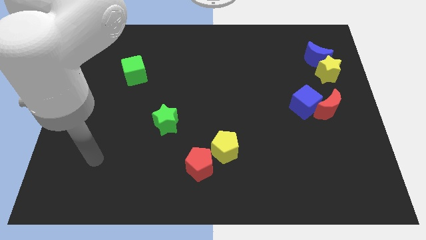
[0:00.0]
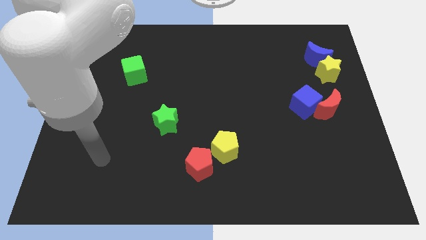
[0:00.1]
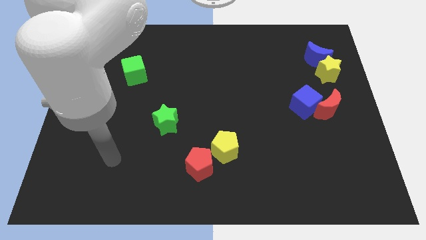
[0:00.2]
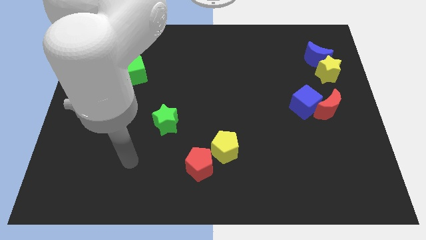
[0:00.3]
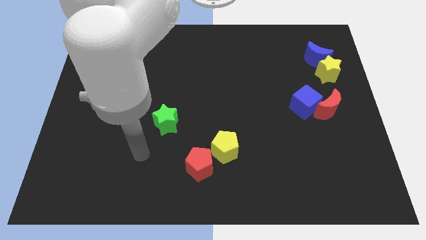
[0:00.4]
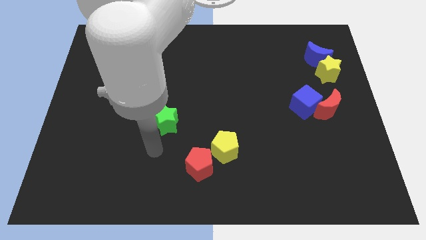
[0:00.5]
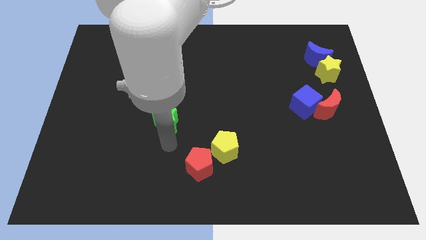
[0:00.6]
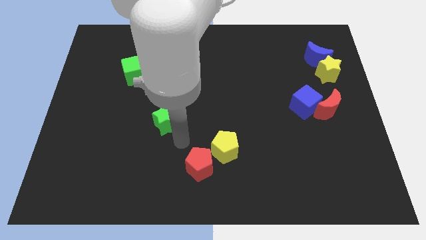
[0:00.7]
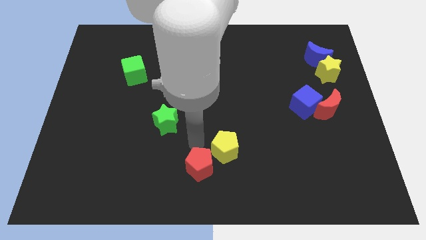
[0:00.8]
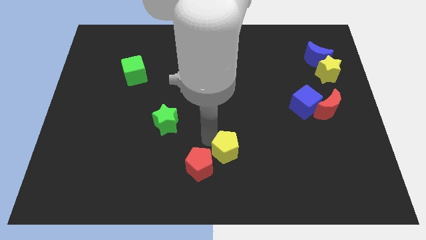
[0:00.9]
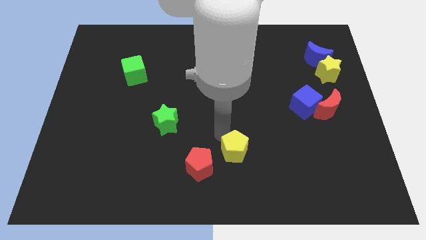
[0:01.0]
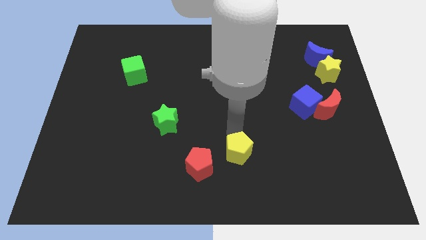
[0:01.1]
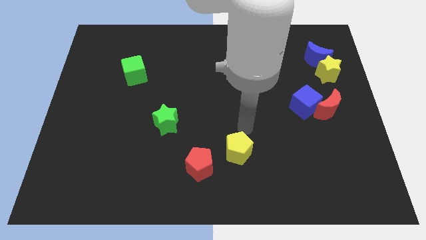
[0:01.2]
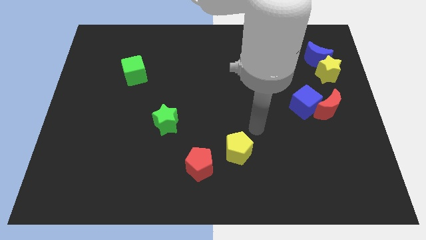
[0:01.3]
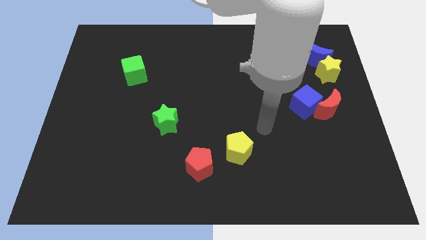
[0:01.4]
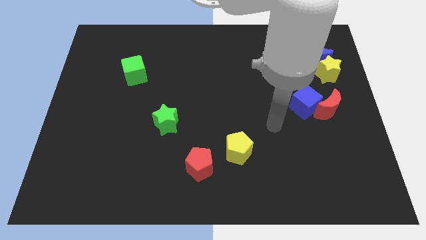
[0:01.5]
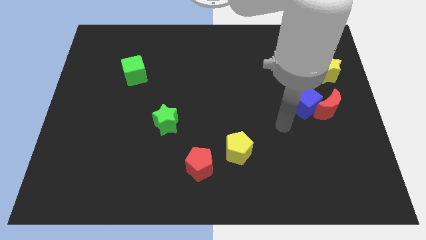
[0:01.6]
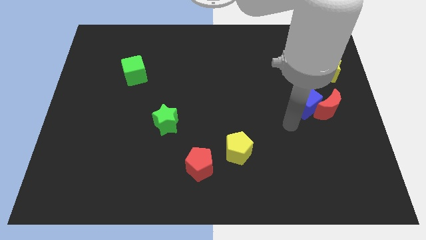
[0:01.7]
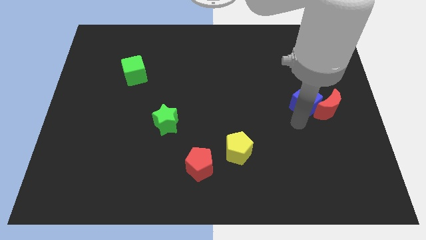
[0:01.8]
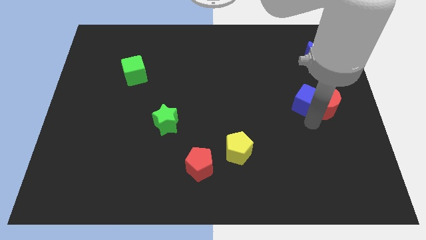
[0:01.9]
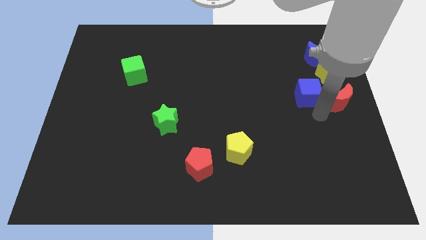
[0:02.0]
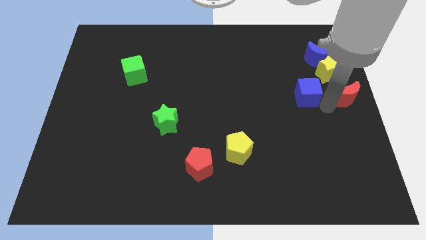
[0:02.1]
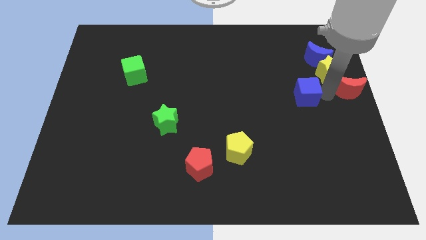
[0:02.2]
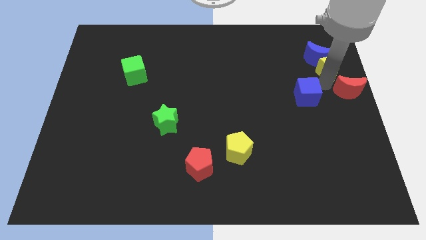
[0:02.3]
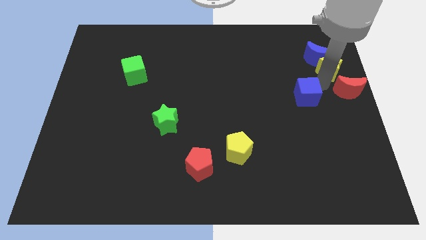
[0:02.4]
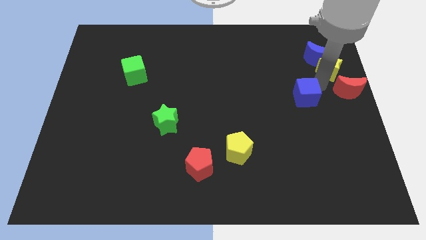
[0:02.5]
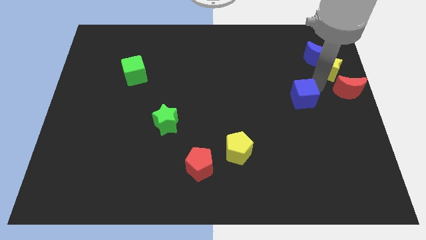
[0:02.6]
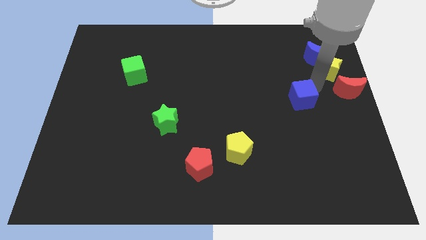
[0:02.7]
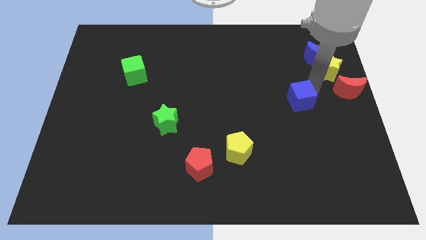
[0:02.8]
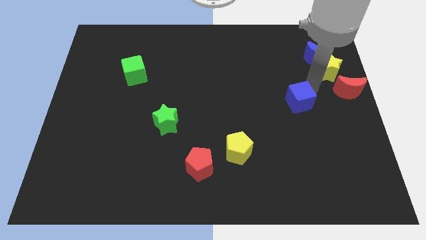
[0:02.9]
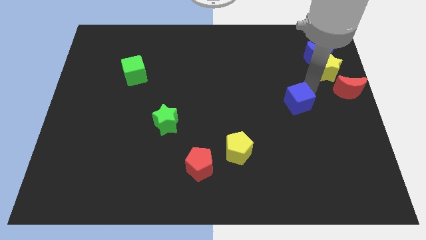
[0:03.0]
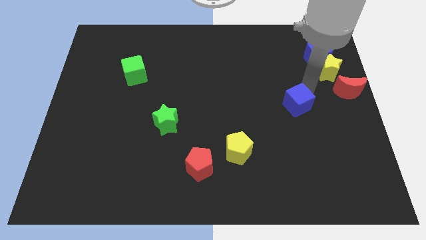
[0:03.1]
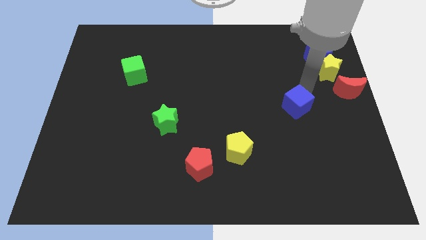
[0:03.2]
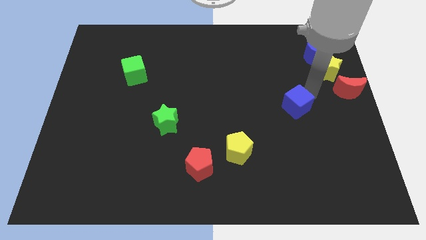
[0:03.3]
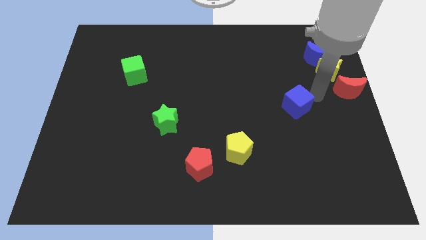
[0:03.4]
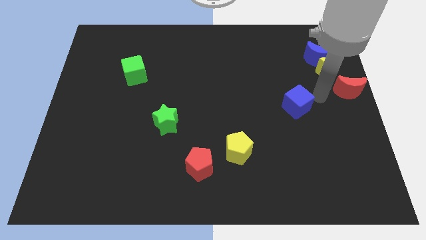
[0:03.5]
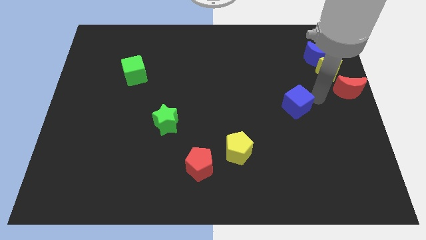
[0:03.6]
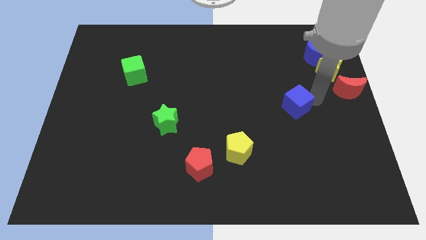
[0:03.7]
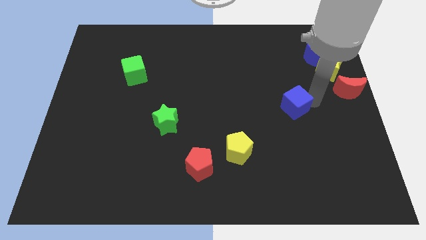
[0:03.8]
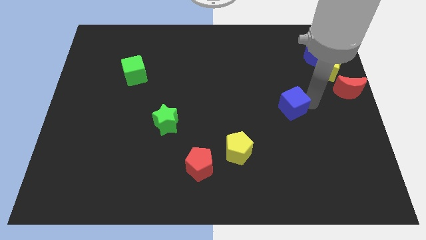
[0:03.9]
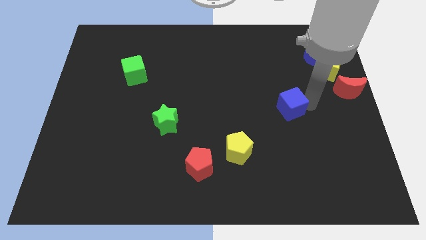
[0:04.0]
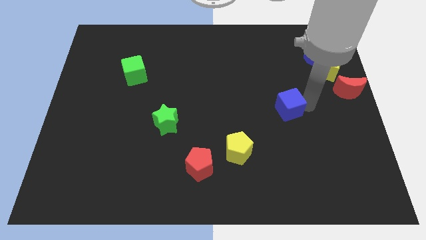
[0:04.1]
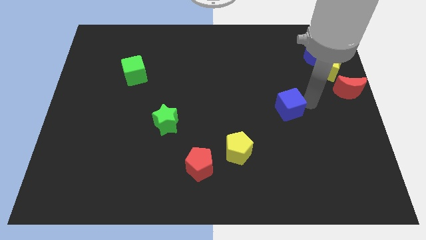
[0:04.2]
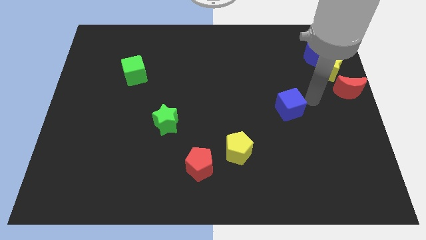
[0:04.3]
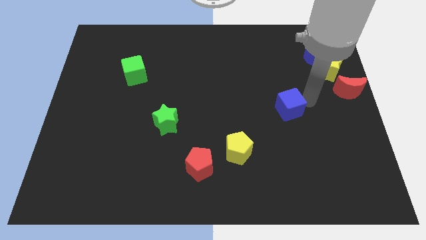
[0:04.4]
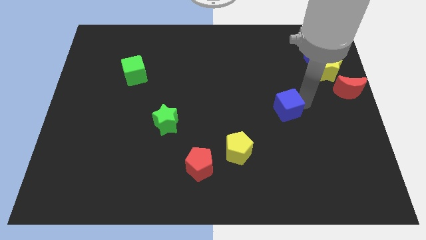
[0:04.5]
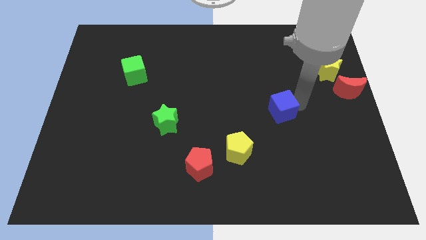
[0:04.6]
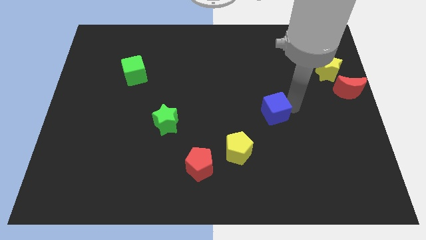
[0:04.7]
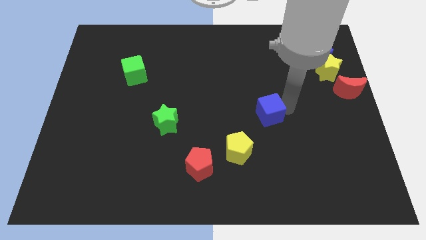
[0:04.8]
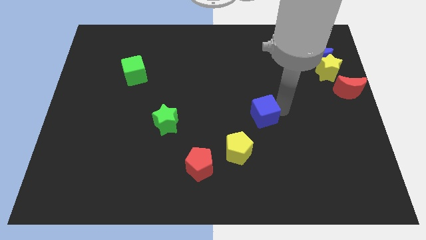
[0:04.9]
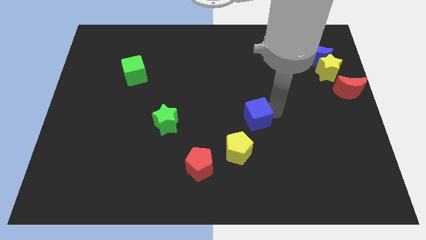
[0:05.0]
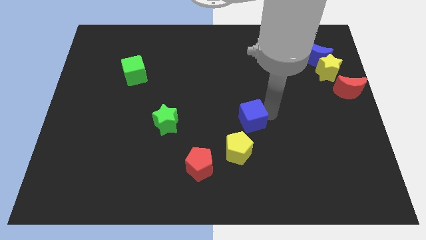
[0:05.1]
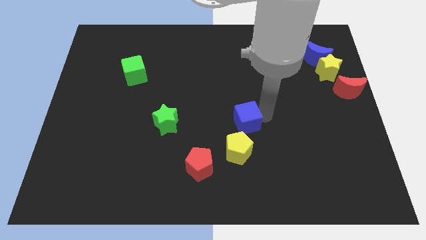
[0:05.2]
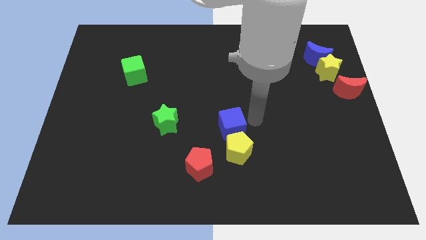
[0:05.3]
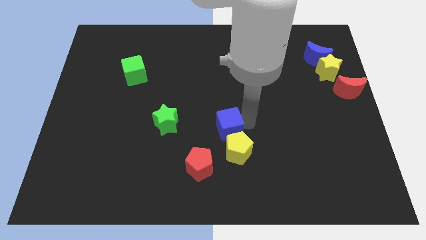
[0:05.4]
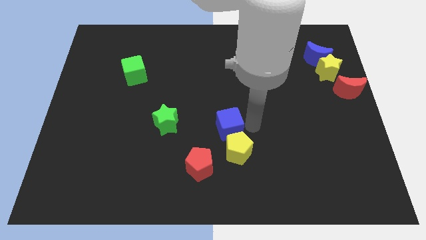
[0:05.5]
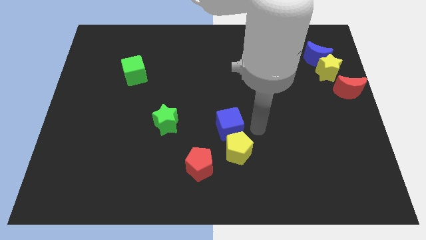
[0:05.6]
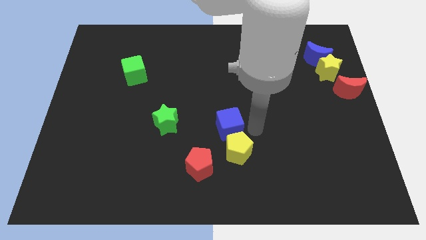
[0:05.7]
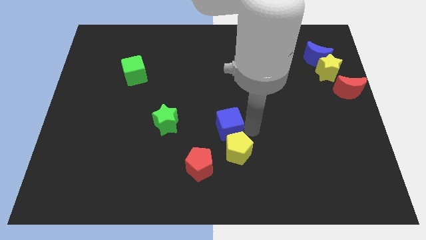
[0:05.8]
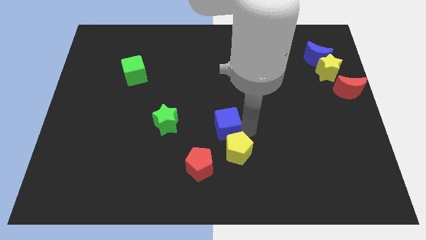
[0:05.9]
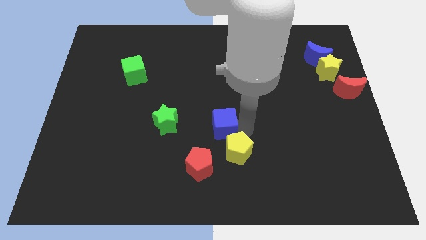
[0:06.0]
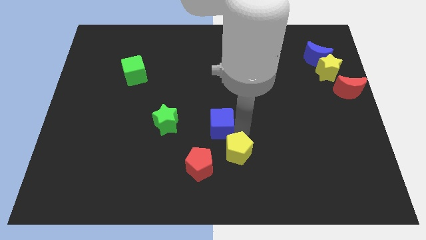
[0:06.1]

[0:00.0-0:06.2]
slide the blue cube to the top side of the red pentagon

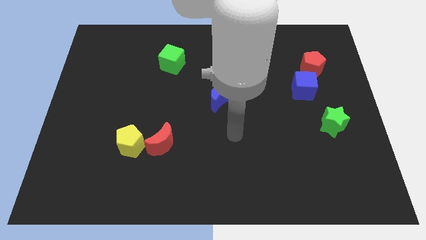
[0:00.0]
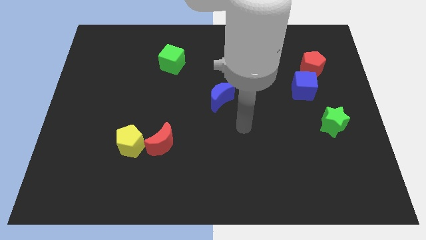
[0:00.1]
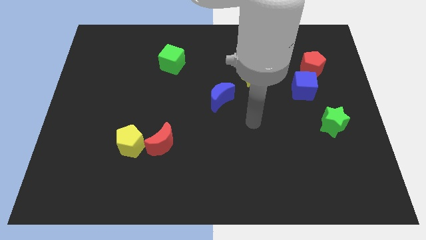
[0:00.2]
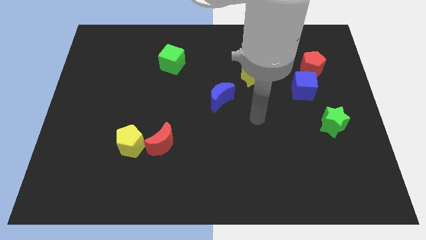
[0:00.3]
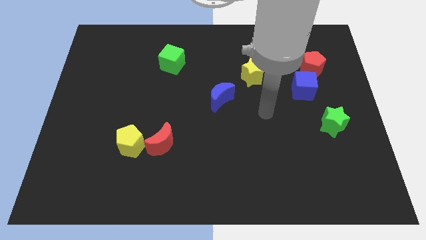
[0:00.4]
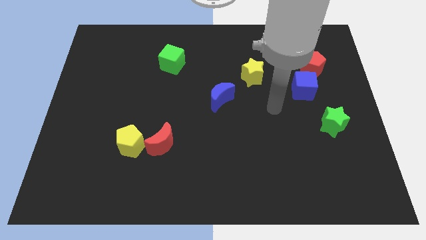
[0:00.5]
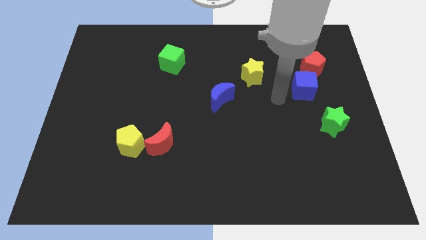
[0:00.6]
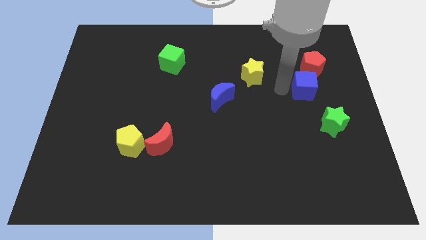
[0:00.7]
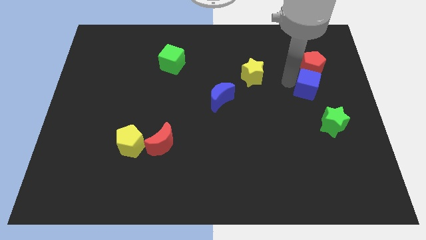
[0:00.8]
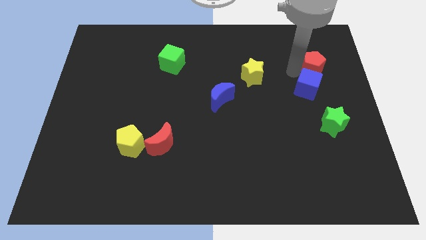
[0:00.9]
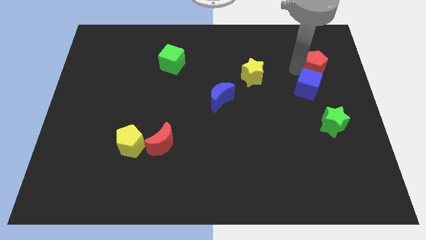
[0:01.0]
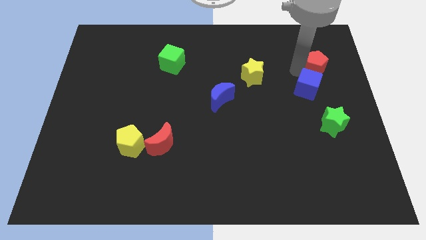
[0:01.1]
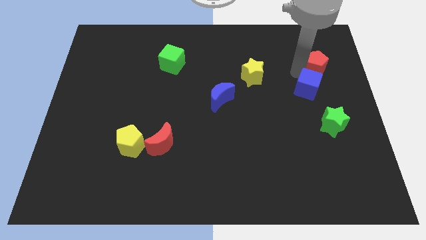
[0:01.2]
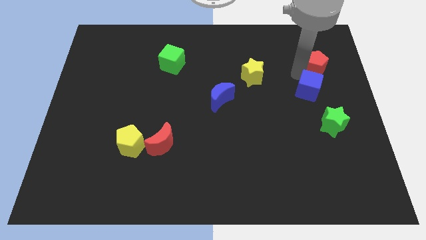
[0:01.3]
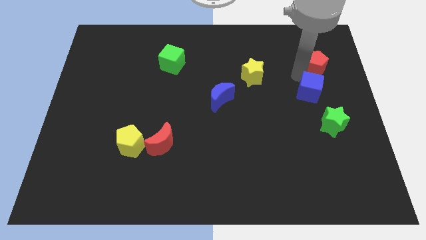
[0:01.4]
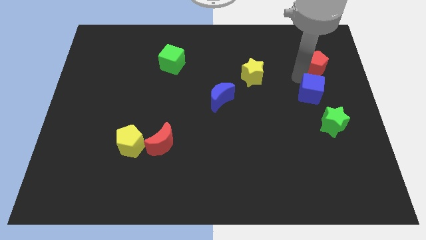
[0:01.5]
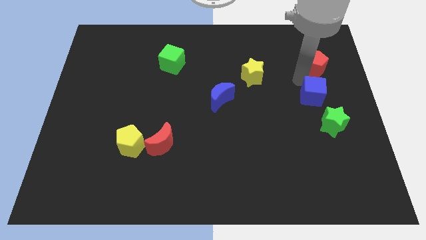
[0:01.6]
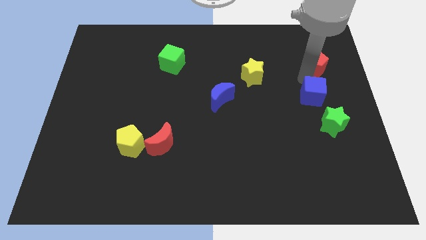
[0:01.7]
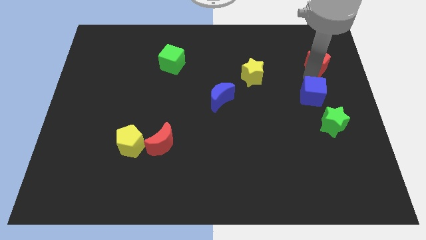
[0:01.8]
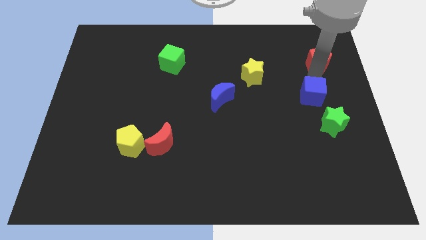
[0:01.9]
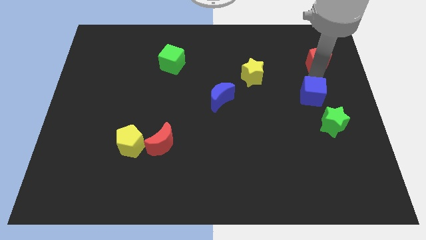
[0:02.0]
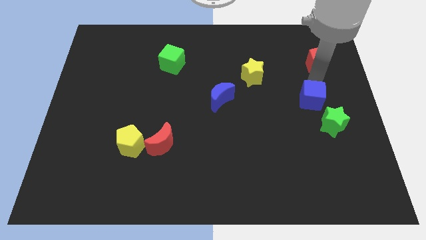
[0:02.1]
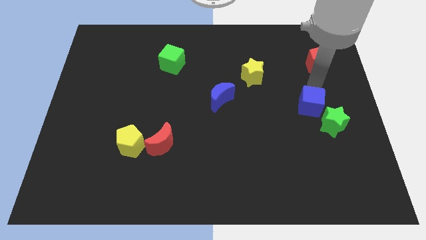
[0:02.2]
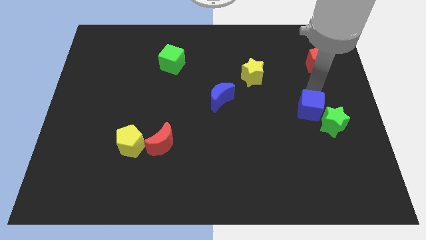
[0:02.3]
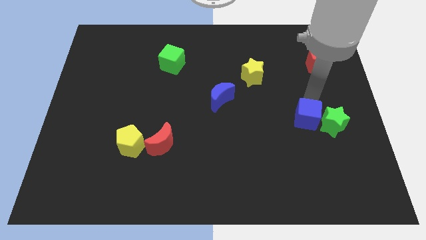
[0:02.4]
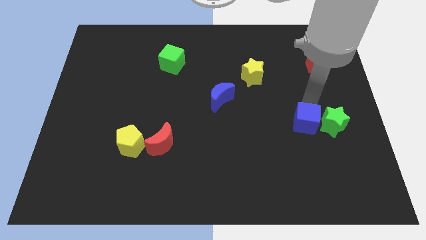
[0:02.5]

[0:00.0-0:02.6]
move the blue cube diagonally down and to the left of the green star
